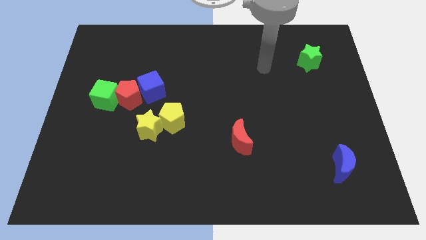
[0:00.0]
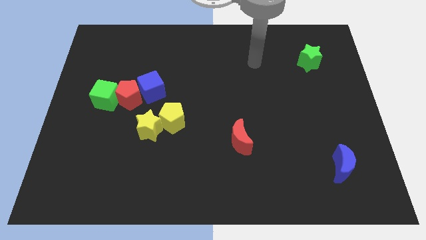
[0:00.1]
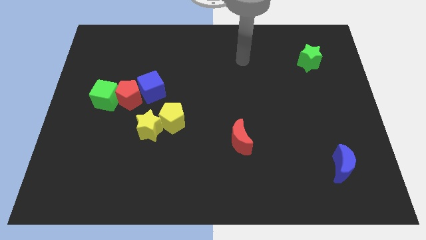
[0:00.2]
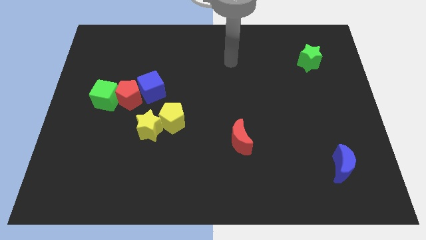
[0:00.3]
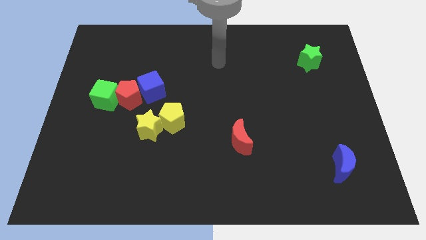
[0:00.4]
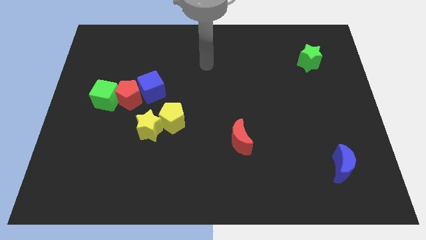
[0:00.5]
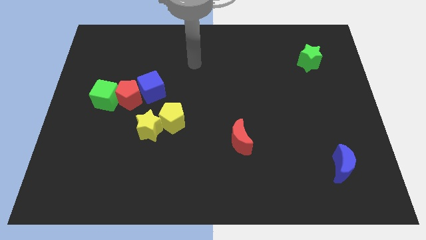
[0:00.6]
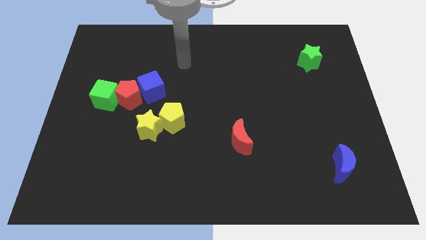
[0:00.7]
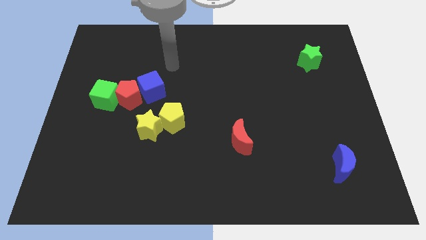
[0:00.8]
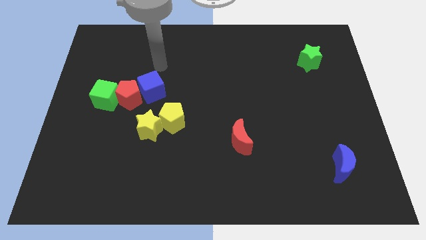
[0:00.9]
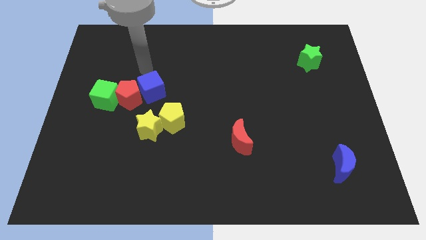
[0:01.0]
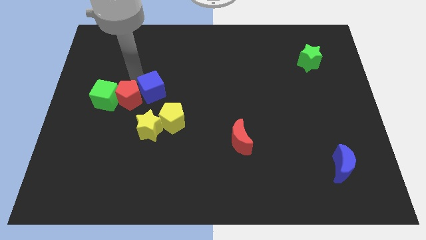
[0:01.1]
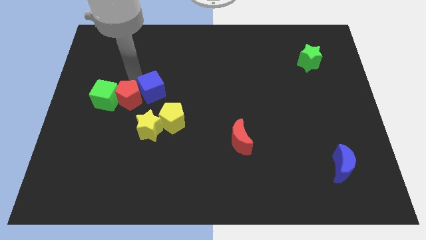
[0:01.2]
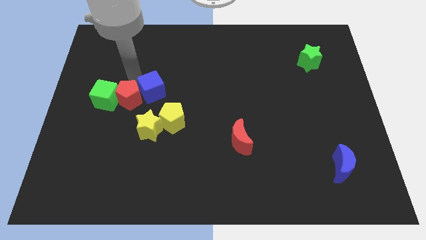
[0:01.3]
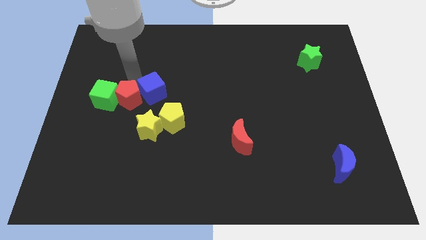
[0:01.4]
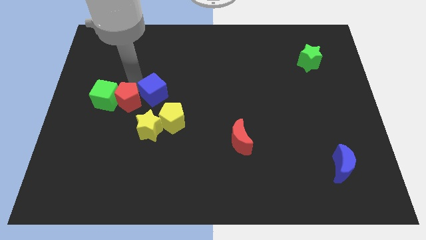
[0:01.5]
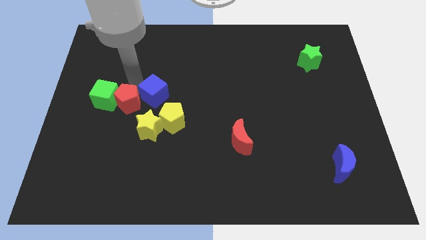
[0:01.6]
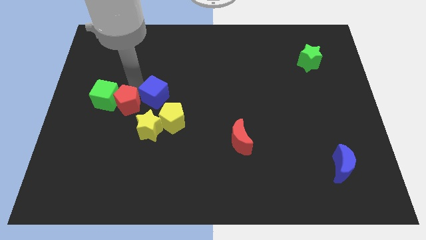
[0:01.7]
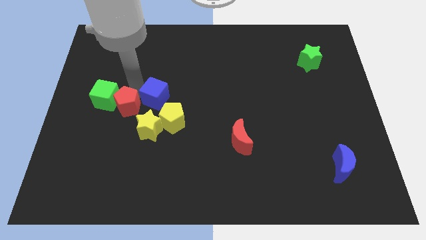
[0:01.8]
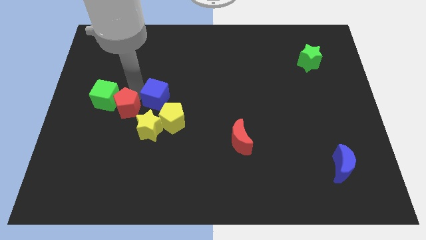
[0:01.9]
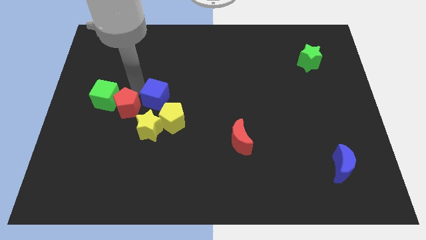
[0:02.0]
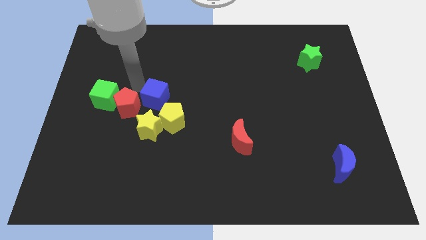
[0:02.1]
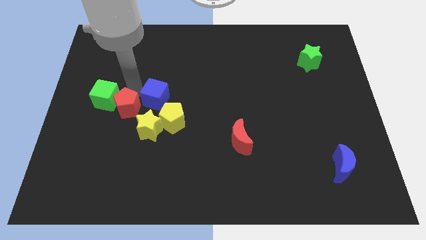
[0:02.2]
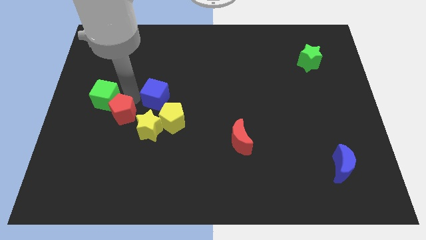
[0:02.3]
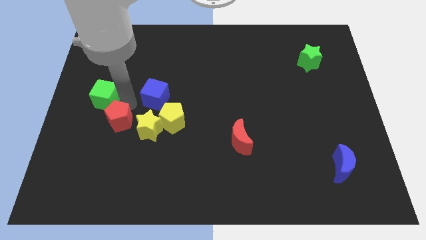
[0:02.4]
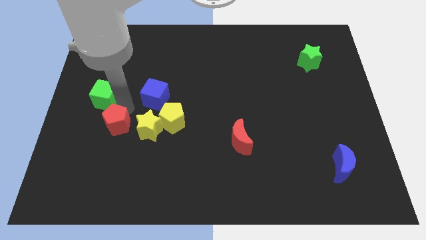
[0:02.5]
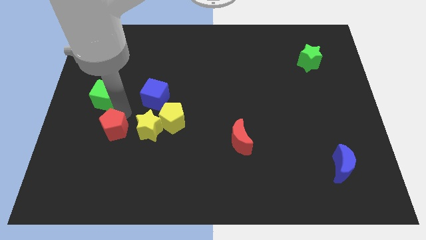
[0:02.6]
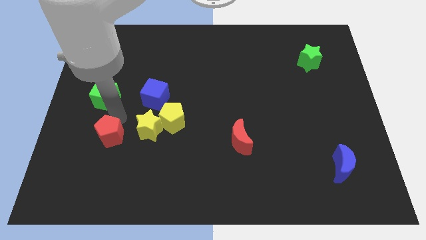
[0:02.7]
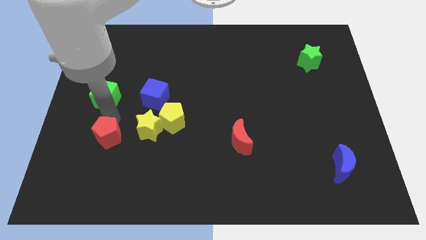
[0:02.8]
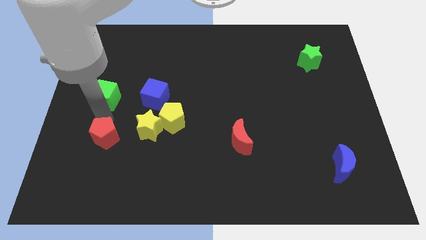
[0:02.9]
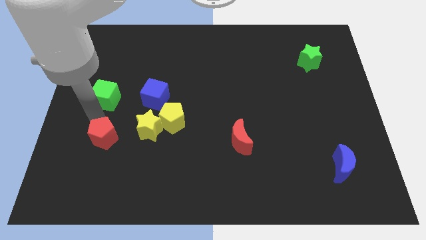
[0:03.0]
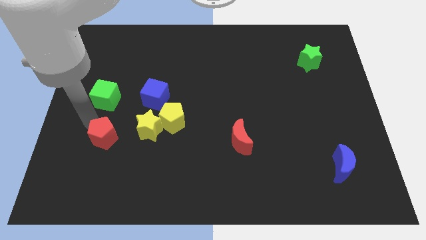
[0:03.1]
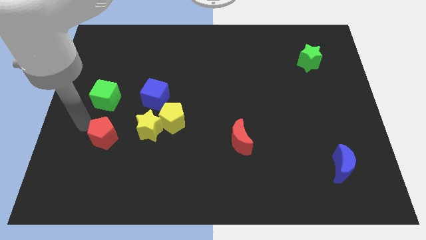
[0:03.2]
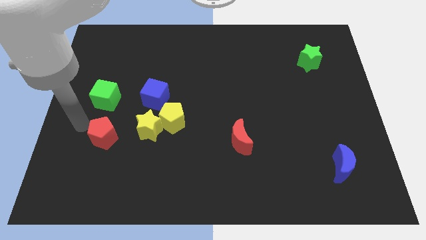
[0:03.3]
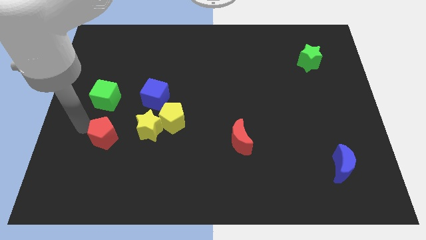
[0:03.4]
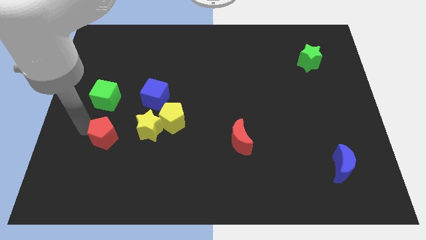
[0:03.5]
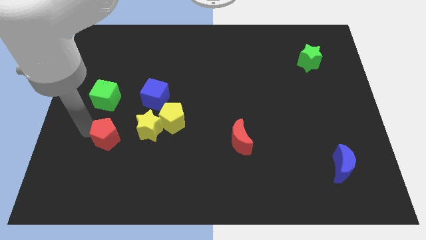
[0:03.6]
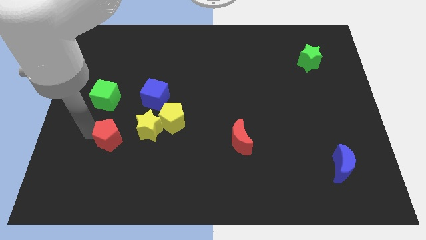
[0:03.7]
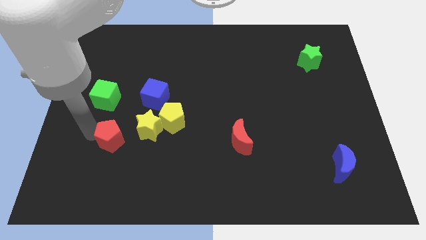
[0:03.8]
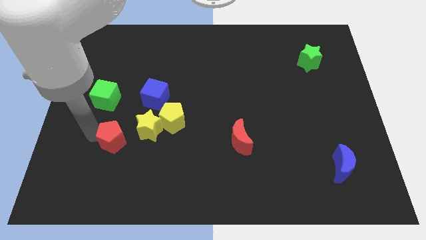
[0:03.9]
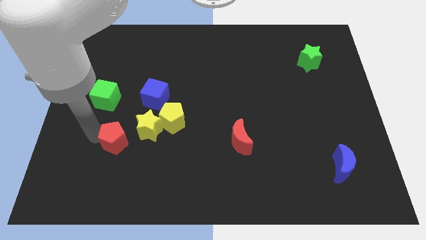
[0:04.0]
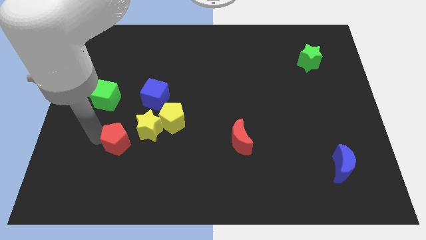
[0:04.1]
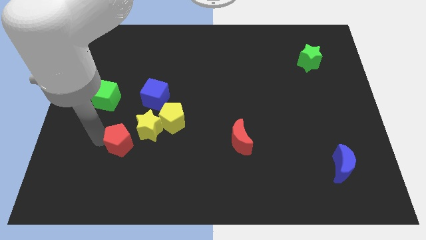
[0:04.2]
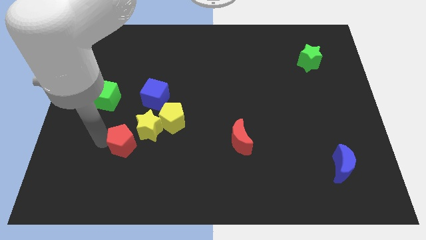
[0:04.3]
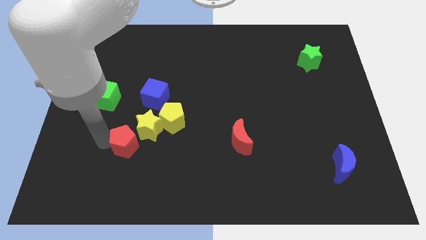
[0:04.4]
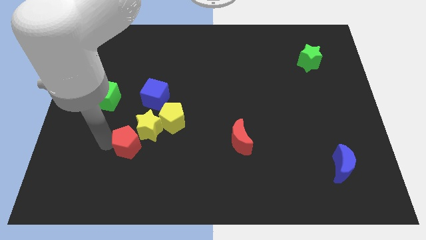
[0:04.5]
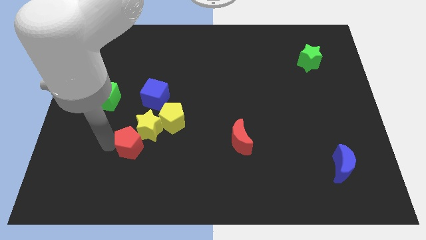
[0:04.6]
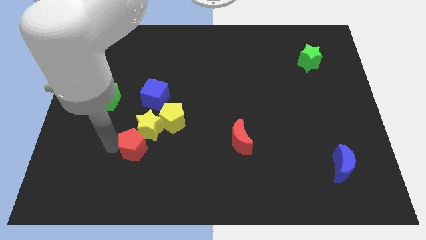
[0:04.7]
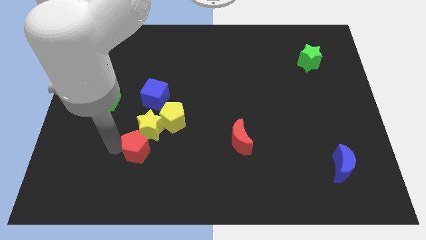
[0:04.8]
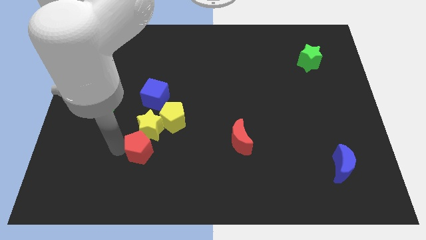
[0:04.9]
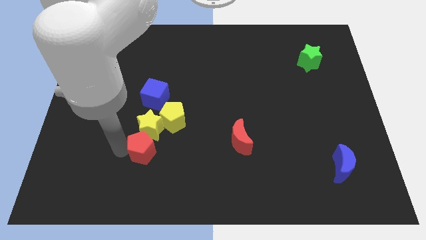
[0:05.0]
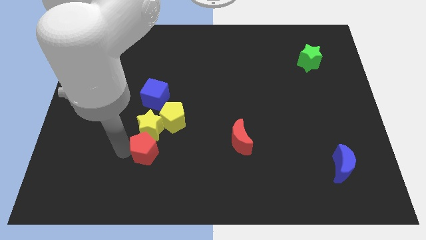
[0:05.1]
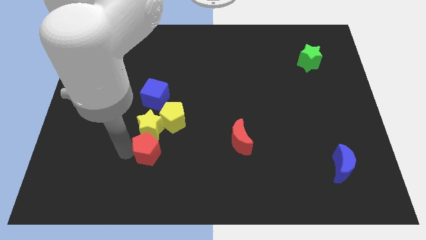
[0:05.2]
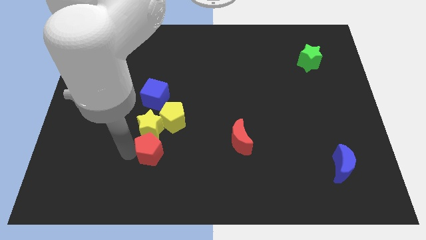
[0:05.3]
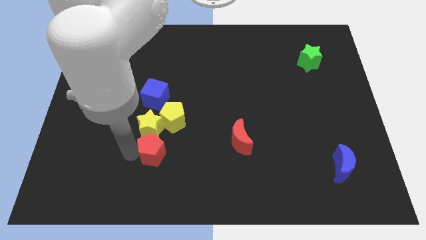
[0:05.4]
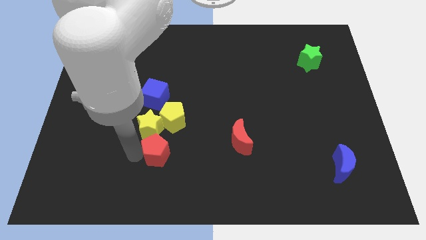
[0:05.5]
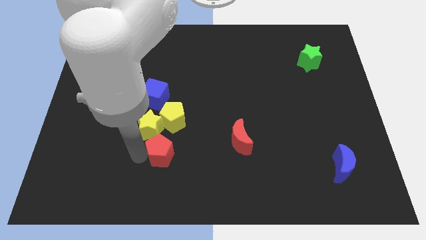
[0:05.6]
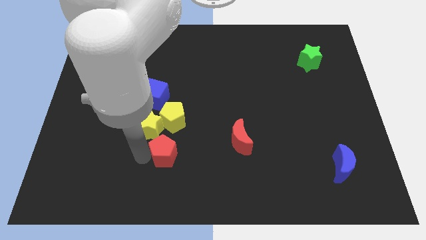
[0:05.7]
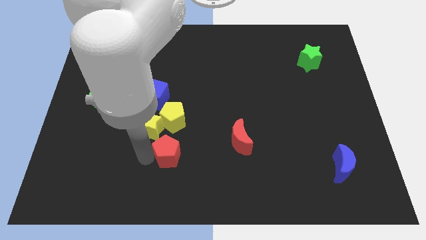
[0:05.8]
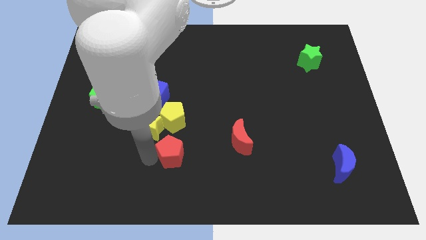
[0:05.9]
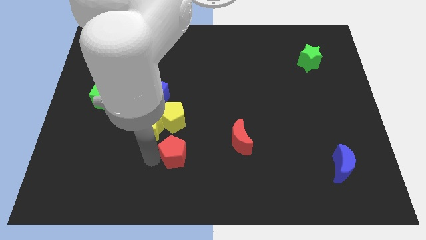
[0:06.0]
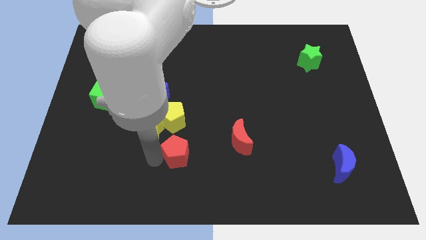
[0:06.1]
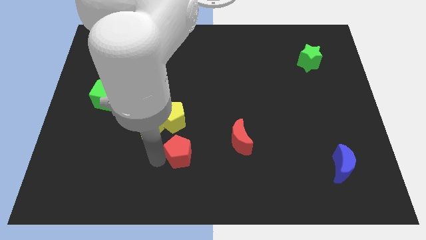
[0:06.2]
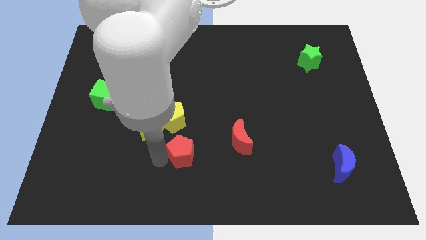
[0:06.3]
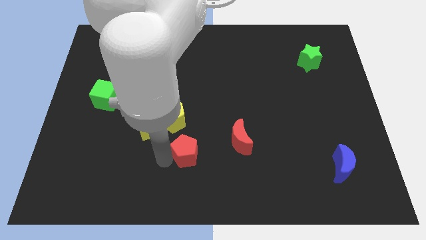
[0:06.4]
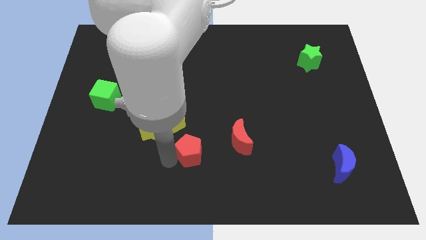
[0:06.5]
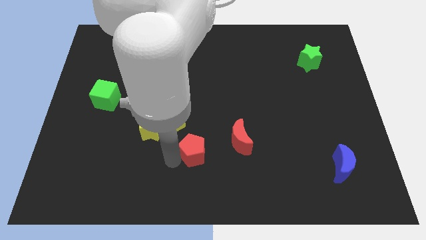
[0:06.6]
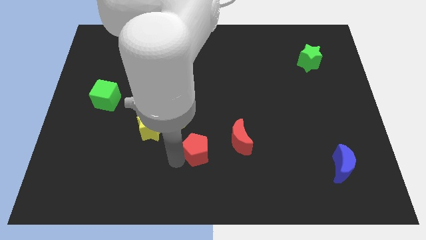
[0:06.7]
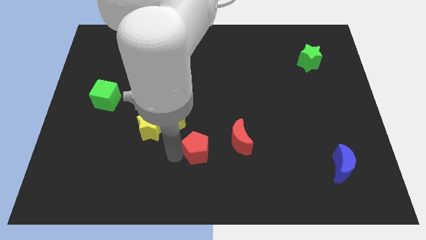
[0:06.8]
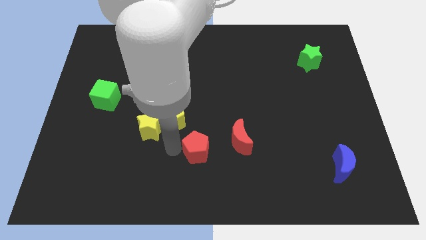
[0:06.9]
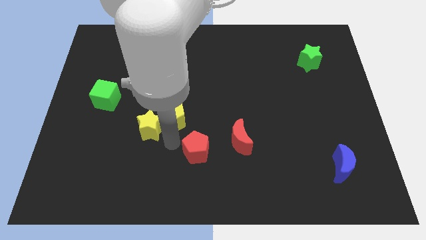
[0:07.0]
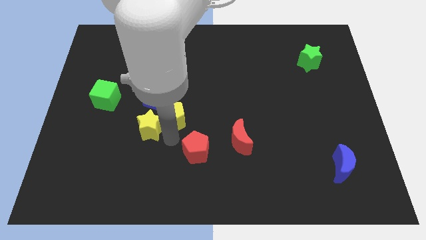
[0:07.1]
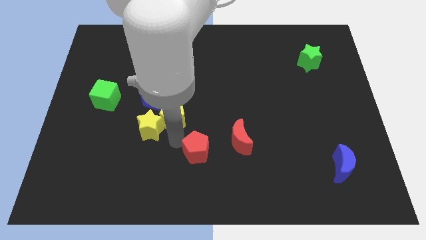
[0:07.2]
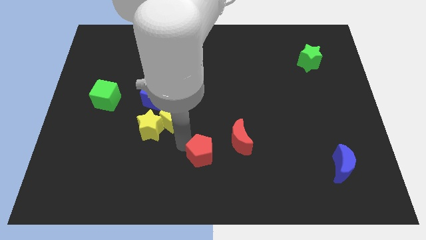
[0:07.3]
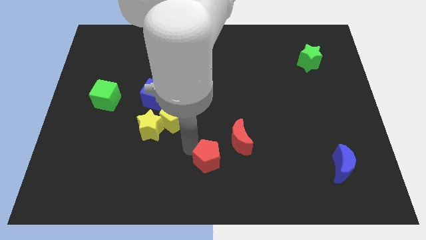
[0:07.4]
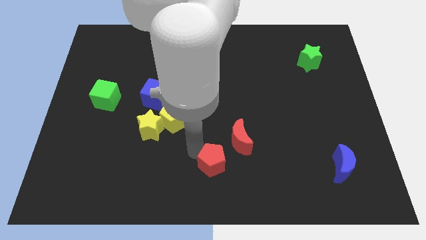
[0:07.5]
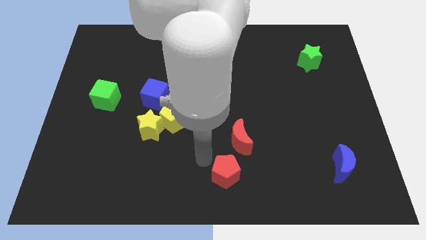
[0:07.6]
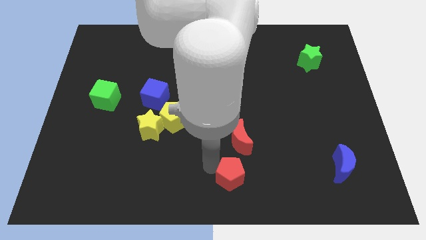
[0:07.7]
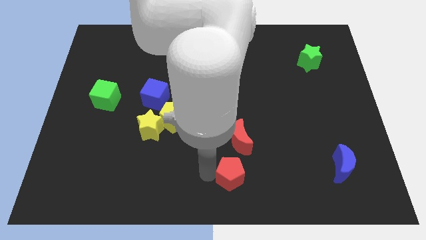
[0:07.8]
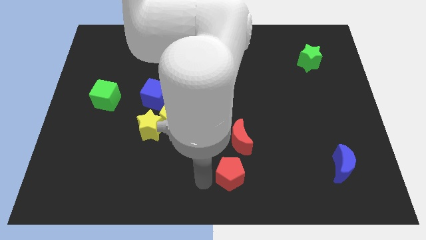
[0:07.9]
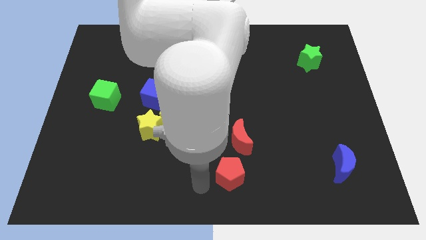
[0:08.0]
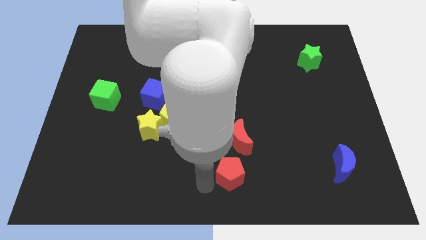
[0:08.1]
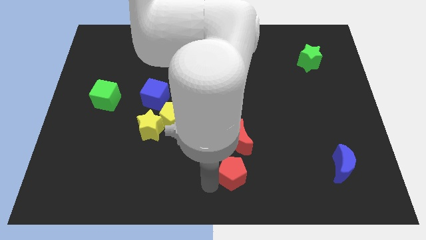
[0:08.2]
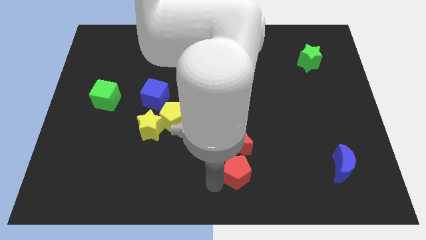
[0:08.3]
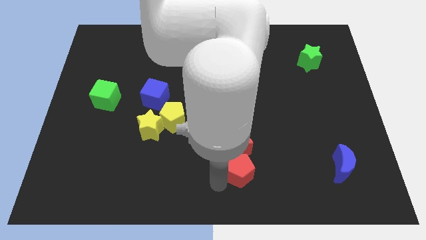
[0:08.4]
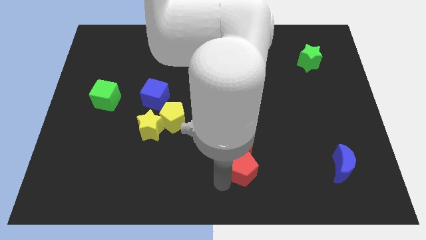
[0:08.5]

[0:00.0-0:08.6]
push the red pentagon diagonally down and to the right of the red moon
